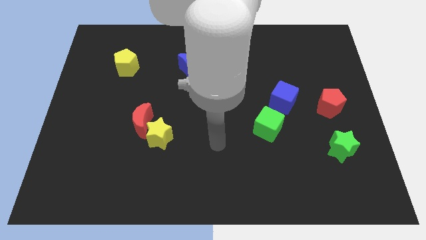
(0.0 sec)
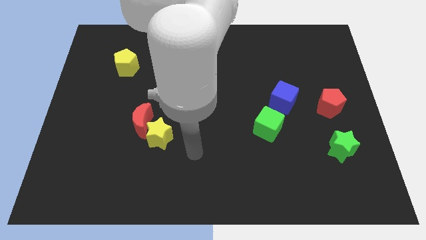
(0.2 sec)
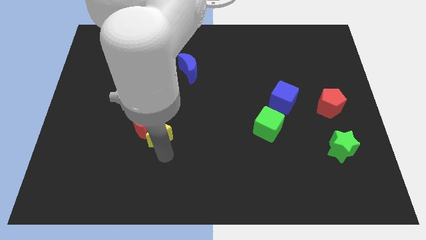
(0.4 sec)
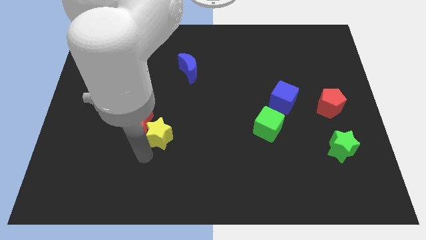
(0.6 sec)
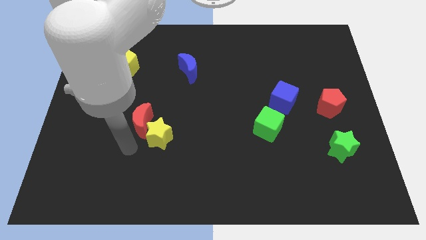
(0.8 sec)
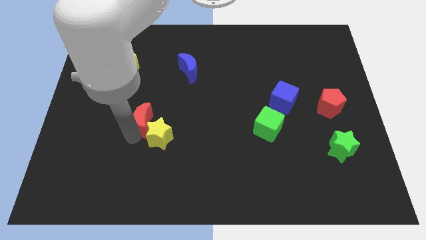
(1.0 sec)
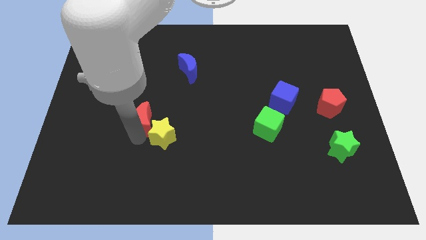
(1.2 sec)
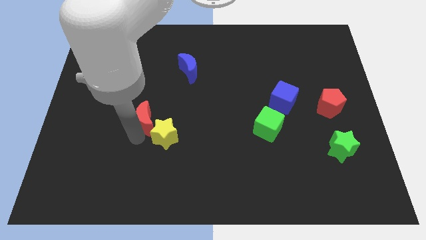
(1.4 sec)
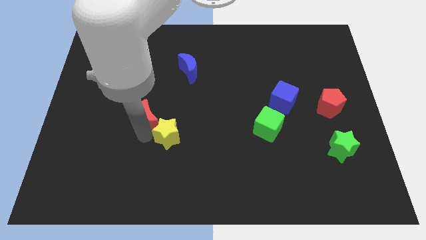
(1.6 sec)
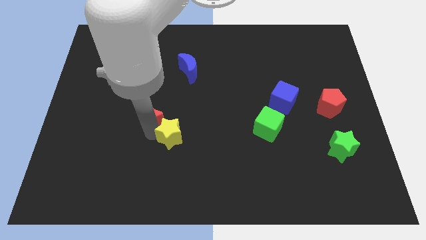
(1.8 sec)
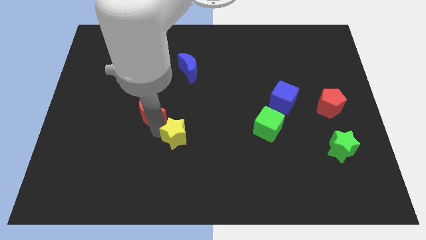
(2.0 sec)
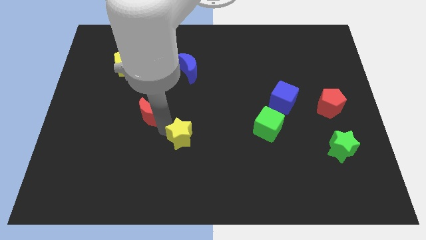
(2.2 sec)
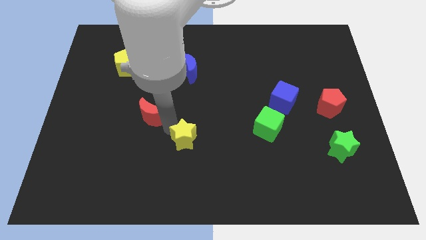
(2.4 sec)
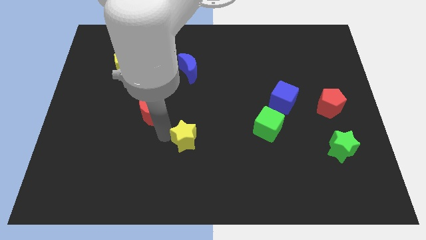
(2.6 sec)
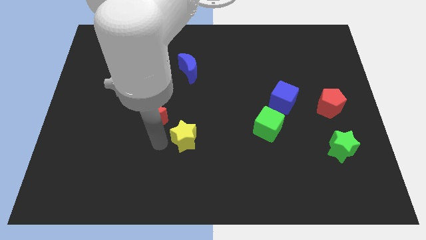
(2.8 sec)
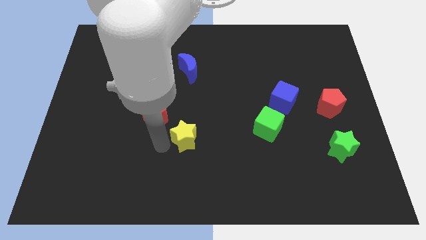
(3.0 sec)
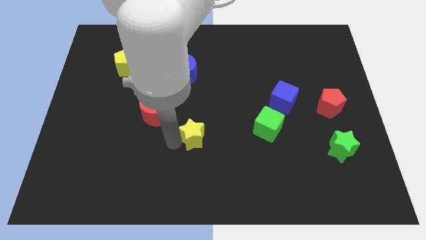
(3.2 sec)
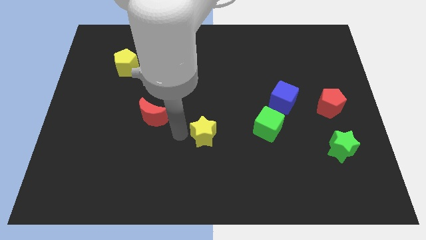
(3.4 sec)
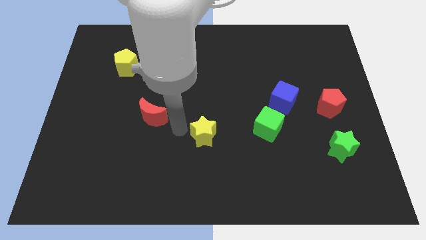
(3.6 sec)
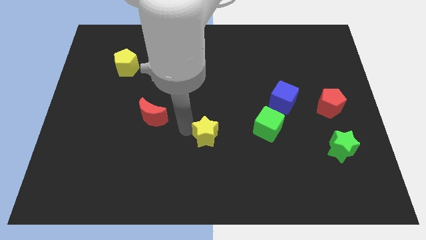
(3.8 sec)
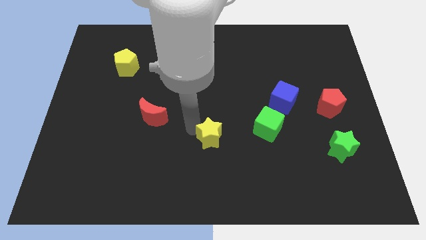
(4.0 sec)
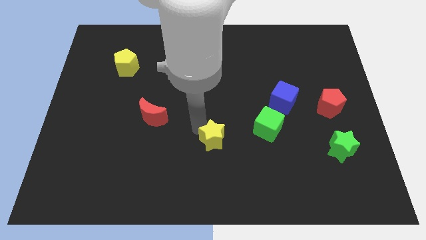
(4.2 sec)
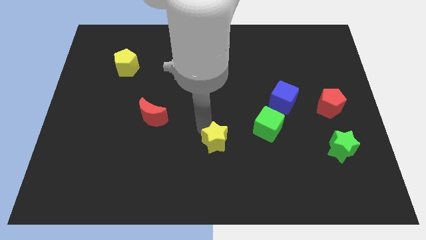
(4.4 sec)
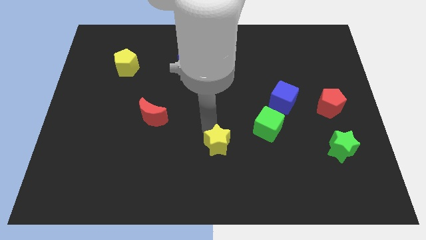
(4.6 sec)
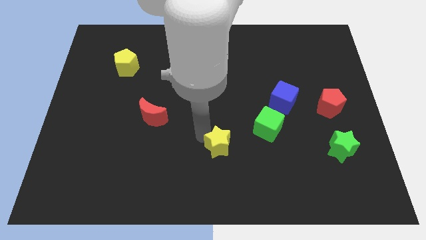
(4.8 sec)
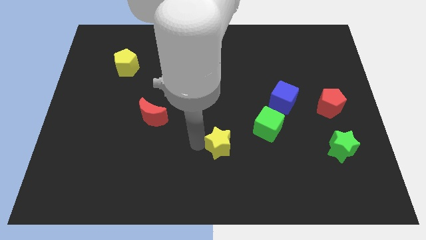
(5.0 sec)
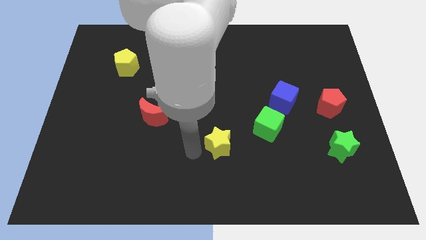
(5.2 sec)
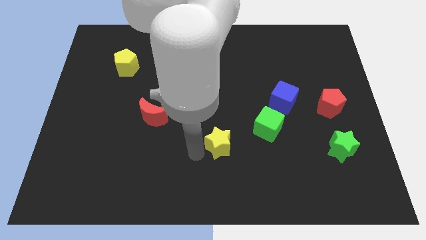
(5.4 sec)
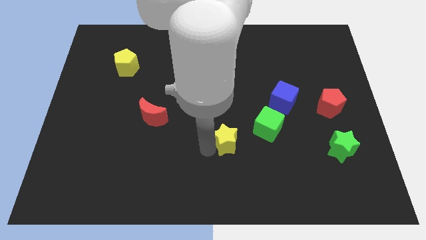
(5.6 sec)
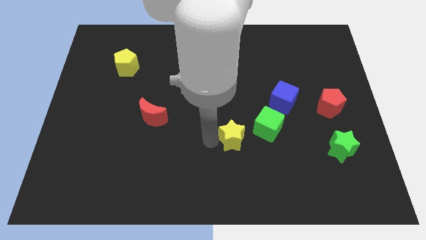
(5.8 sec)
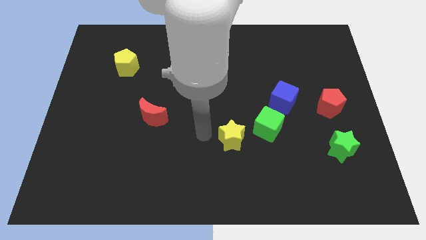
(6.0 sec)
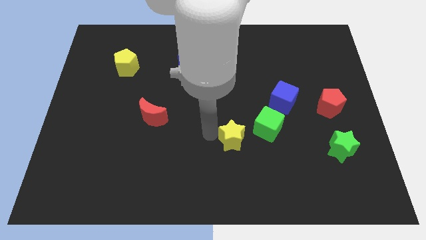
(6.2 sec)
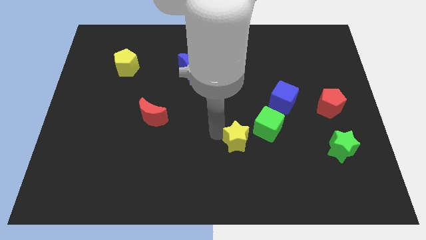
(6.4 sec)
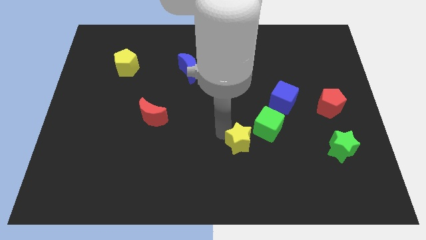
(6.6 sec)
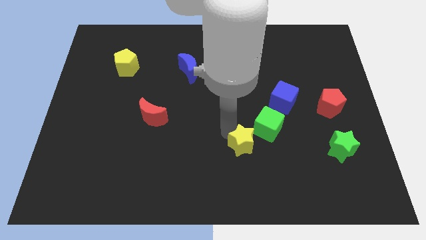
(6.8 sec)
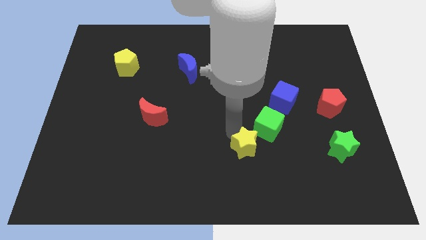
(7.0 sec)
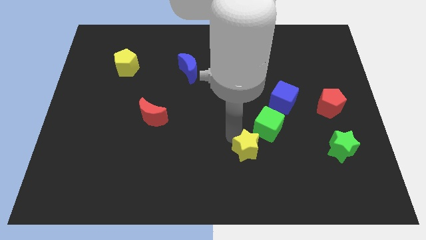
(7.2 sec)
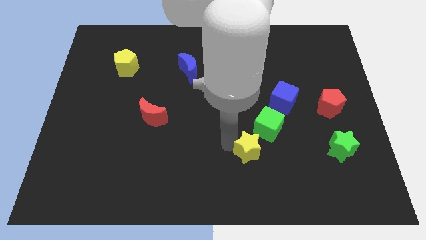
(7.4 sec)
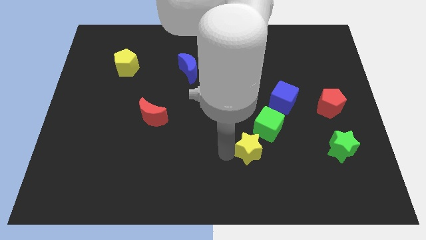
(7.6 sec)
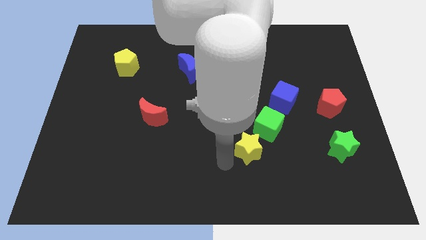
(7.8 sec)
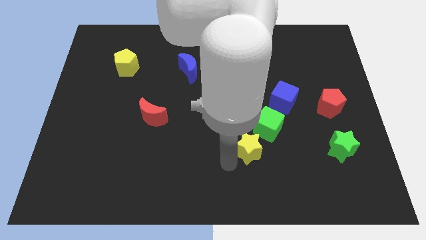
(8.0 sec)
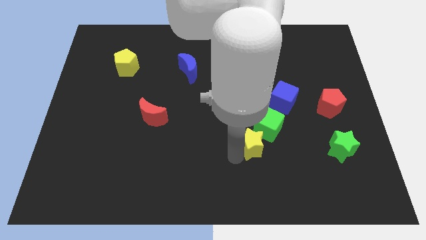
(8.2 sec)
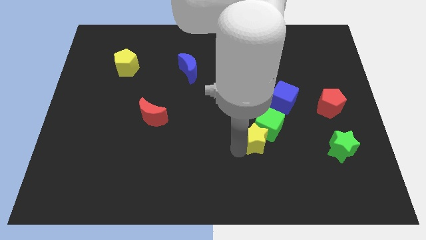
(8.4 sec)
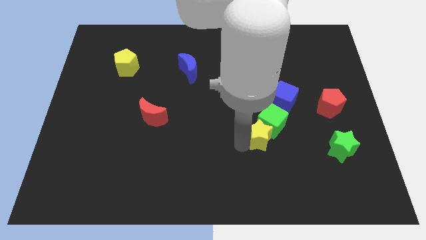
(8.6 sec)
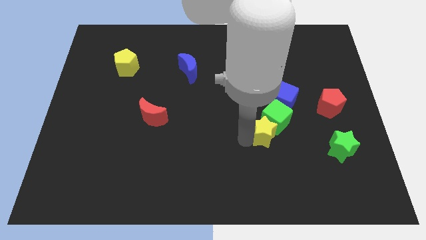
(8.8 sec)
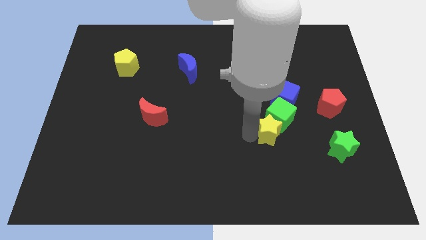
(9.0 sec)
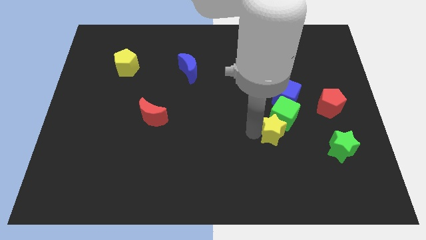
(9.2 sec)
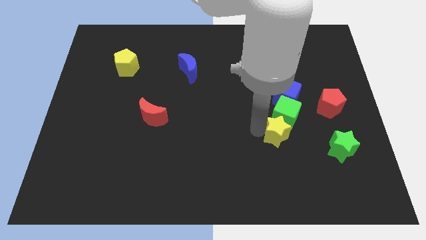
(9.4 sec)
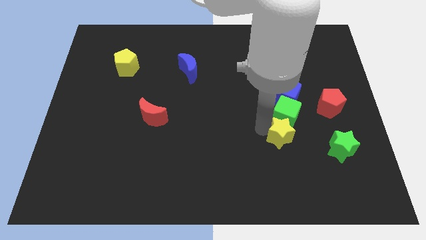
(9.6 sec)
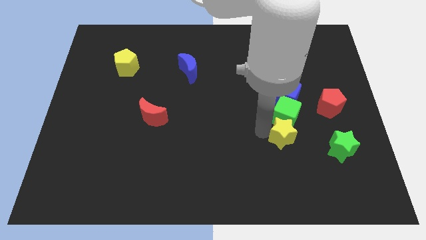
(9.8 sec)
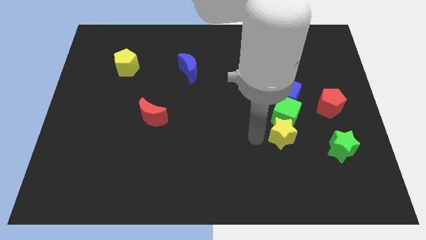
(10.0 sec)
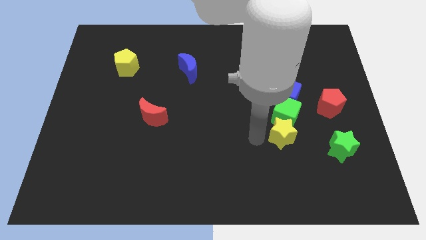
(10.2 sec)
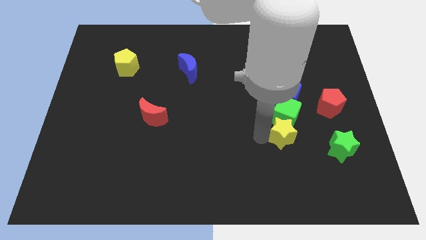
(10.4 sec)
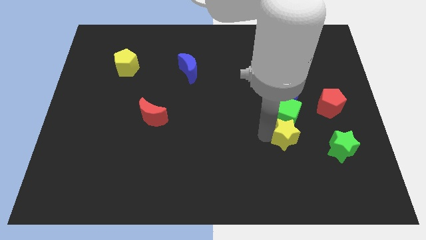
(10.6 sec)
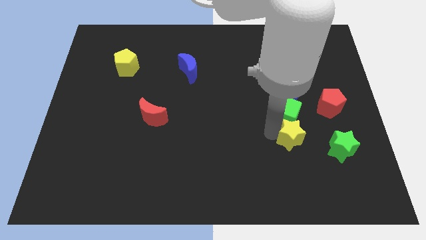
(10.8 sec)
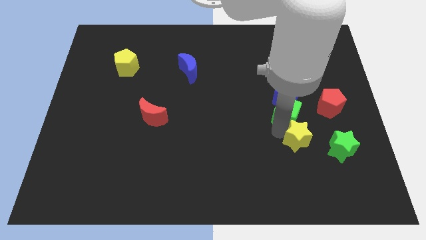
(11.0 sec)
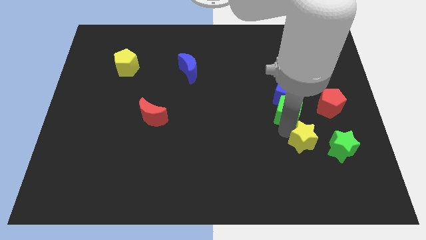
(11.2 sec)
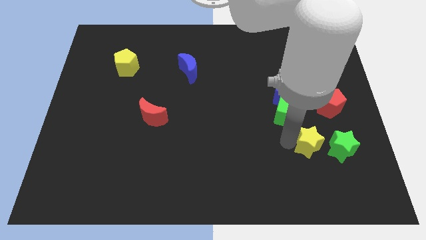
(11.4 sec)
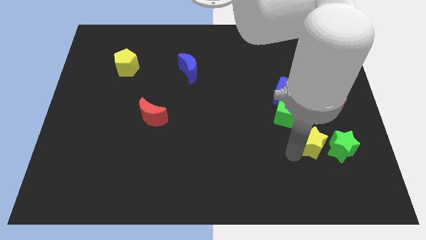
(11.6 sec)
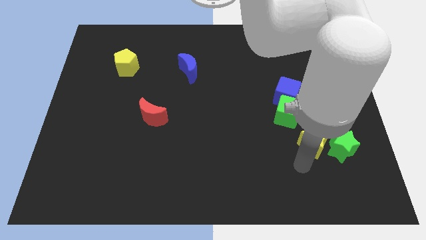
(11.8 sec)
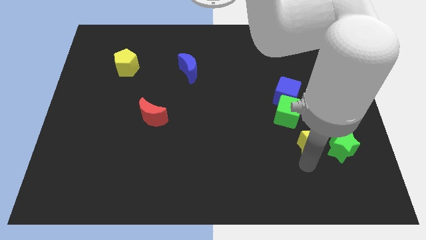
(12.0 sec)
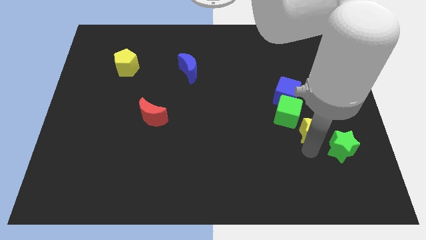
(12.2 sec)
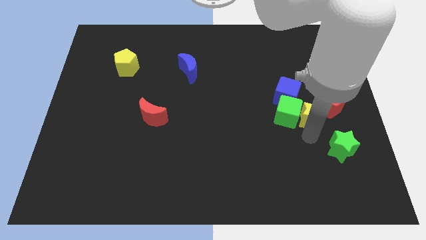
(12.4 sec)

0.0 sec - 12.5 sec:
move the yellow star towards the red pentagon

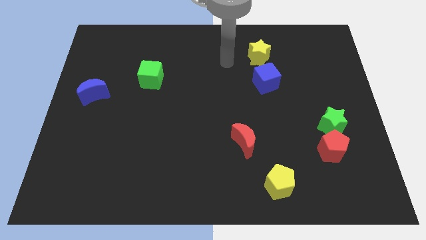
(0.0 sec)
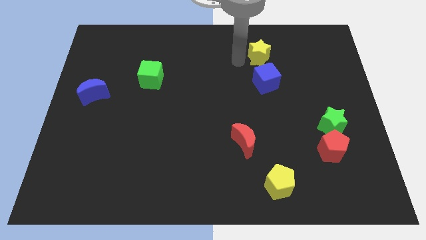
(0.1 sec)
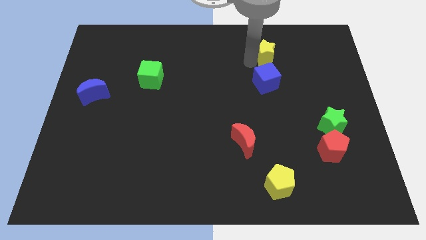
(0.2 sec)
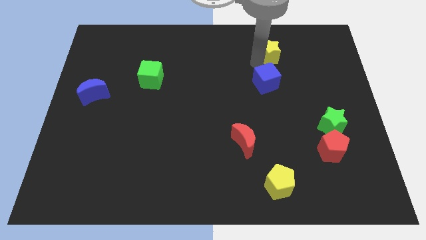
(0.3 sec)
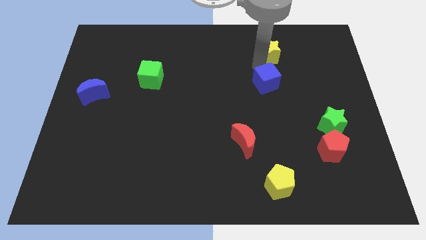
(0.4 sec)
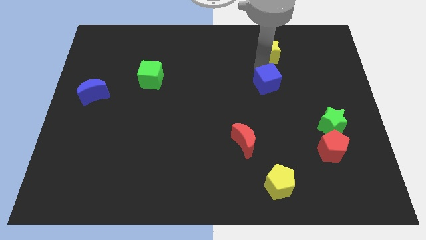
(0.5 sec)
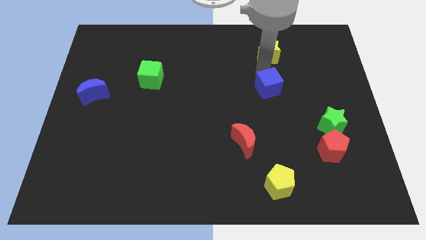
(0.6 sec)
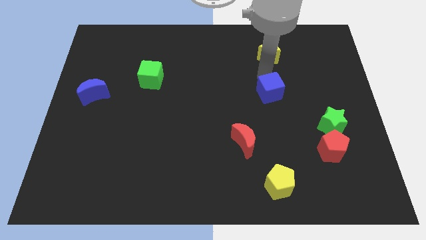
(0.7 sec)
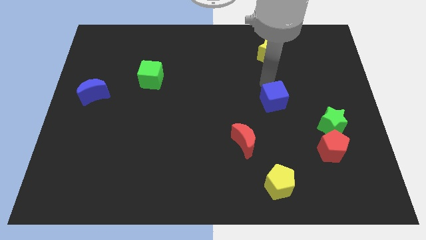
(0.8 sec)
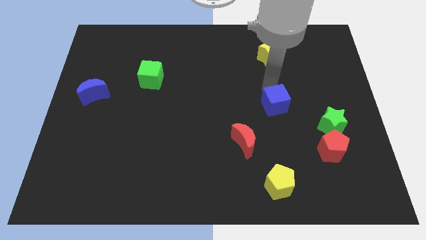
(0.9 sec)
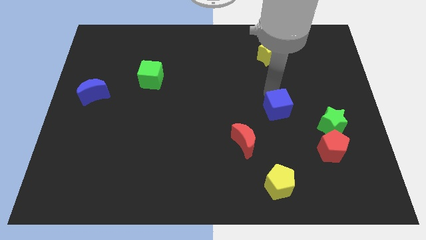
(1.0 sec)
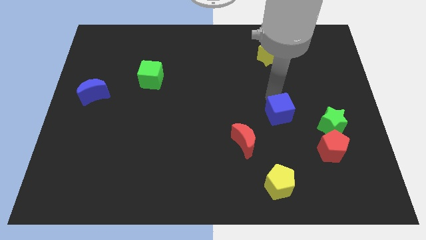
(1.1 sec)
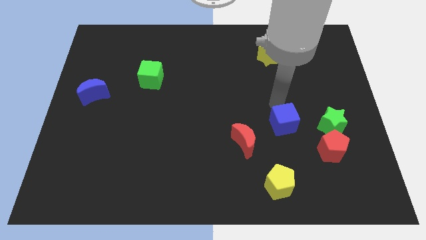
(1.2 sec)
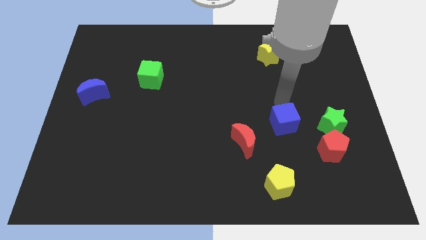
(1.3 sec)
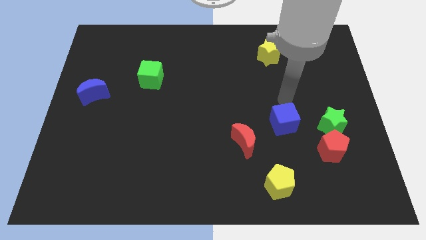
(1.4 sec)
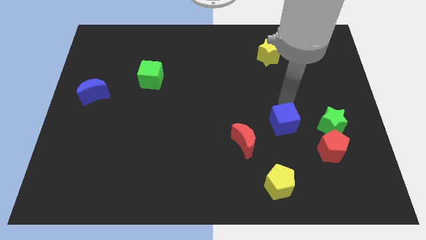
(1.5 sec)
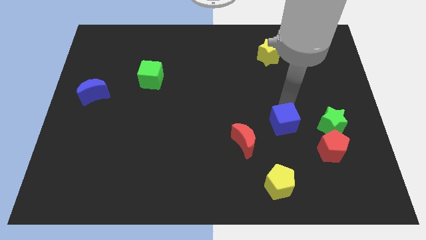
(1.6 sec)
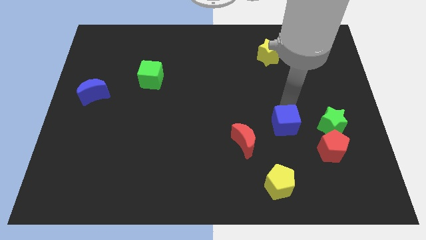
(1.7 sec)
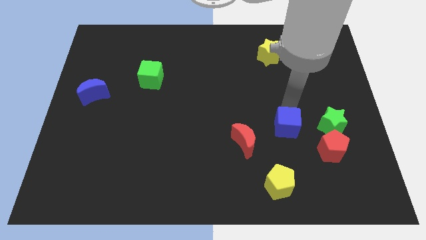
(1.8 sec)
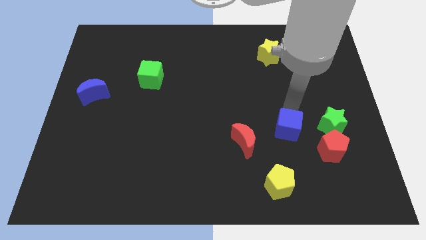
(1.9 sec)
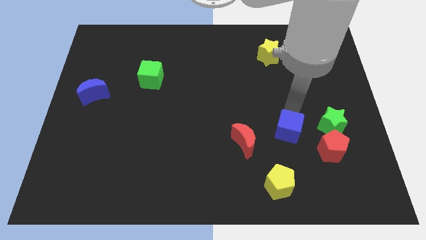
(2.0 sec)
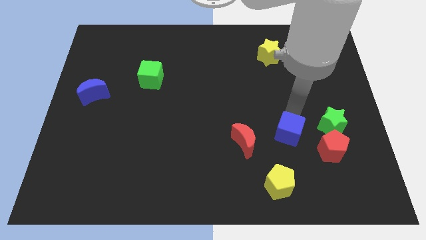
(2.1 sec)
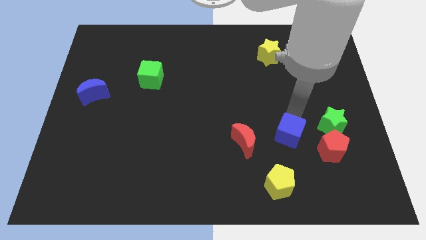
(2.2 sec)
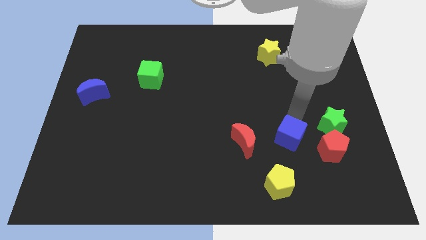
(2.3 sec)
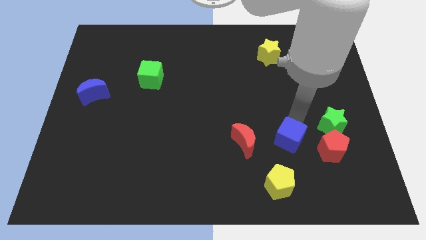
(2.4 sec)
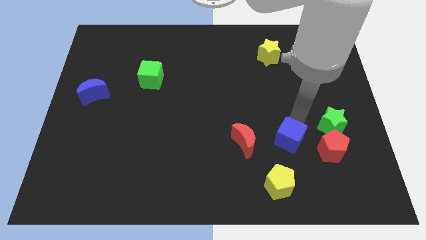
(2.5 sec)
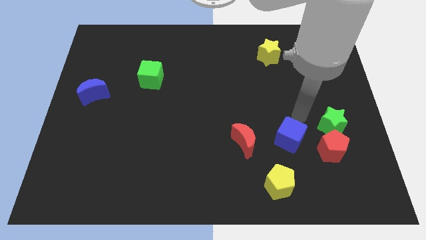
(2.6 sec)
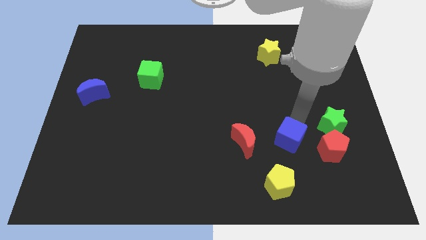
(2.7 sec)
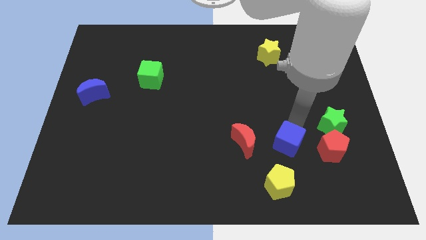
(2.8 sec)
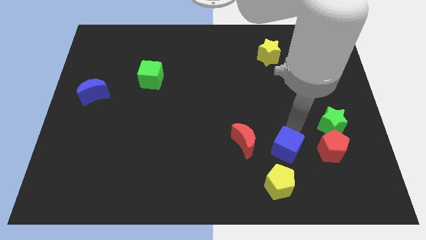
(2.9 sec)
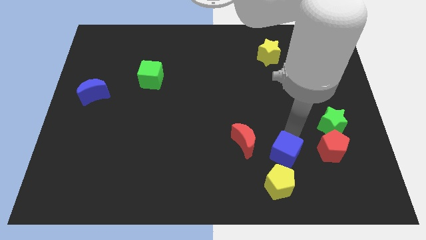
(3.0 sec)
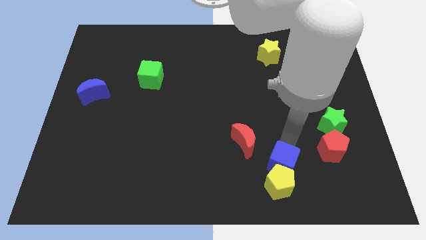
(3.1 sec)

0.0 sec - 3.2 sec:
put the blue cube towards the yellow pentagon
